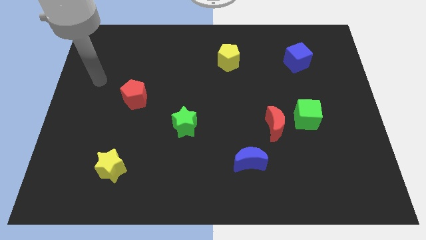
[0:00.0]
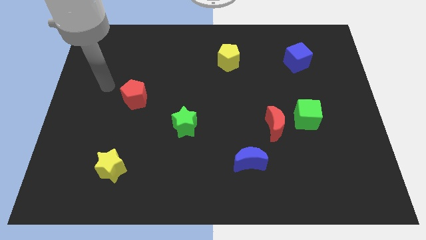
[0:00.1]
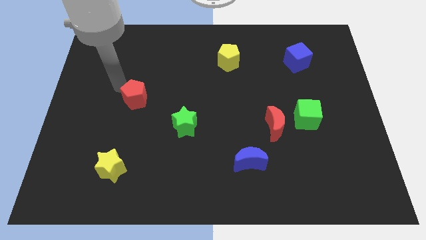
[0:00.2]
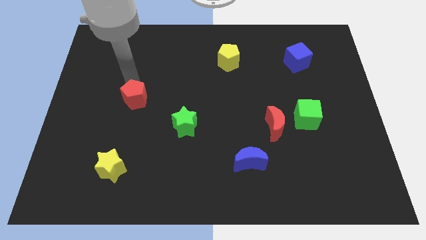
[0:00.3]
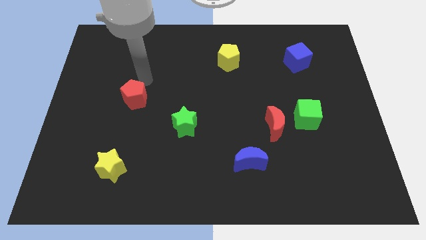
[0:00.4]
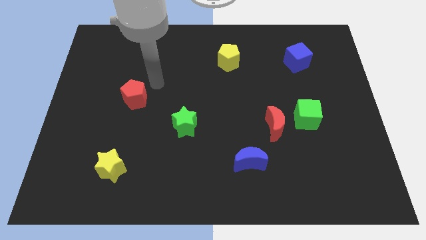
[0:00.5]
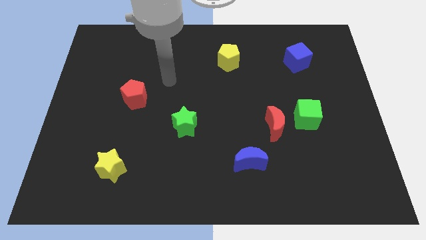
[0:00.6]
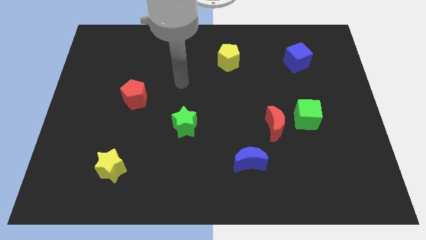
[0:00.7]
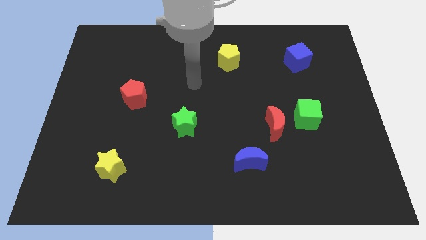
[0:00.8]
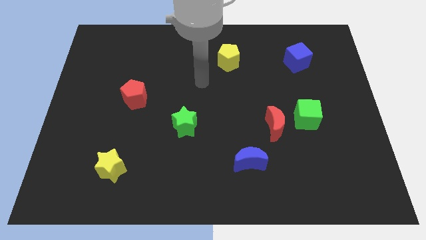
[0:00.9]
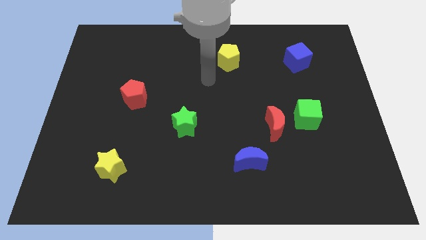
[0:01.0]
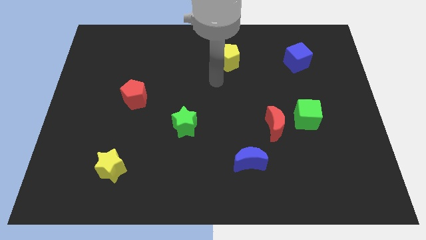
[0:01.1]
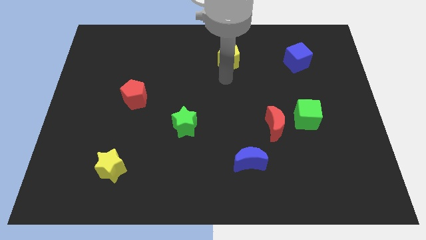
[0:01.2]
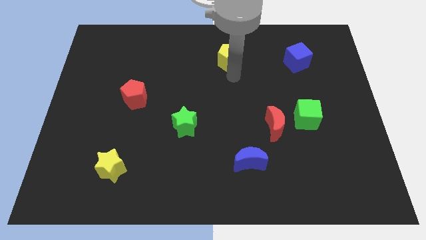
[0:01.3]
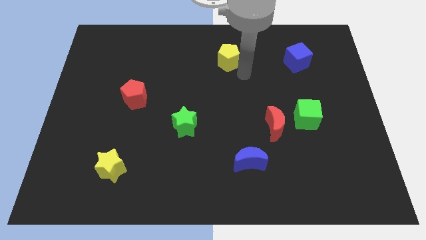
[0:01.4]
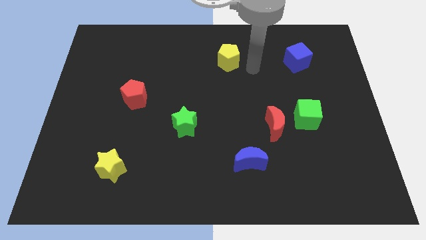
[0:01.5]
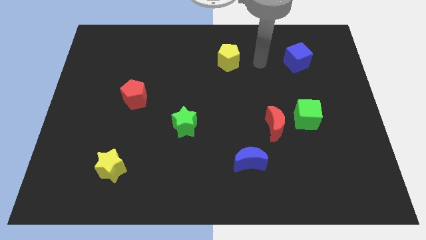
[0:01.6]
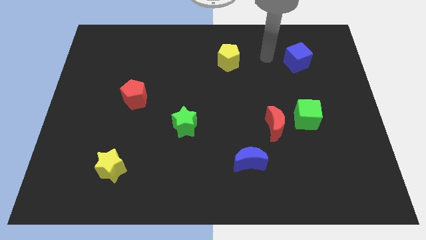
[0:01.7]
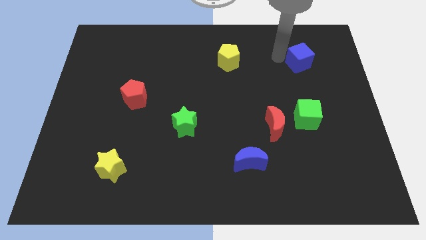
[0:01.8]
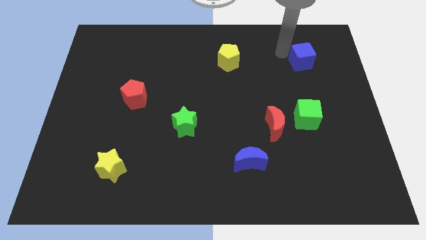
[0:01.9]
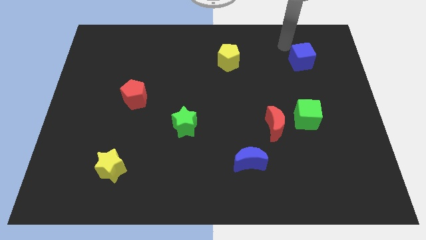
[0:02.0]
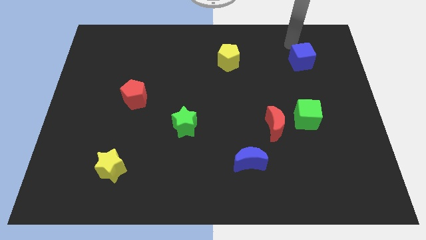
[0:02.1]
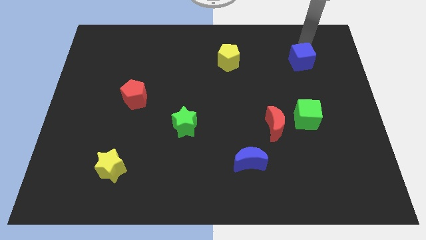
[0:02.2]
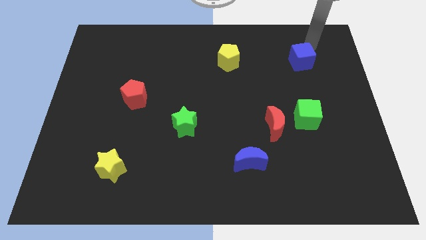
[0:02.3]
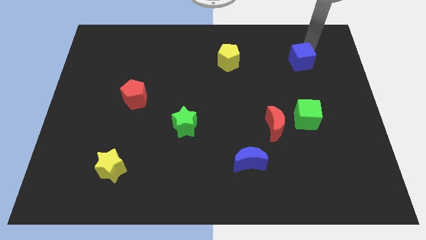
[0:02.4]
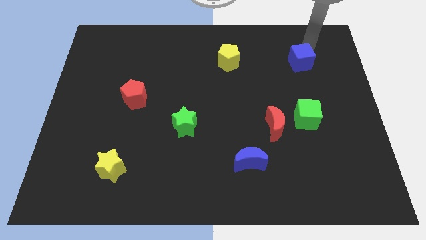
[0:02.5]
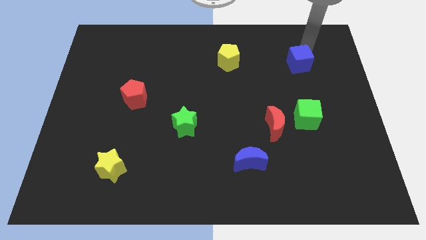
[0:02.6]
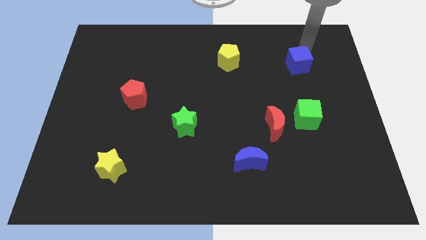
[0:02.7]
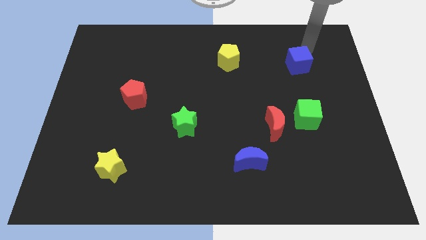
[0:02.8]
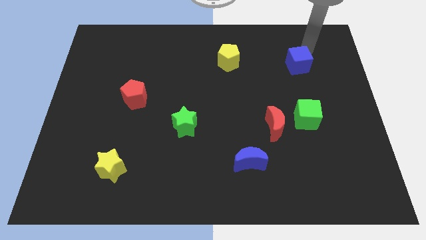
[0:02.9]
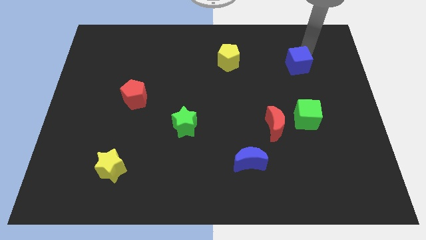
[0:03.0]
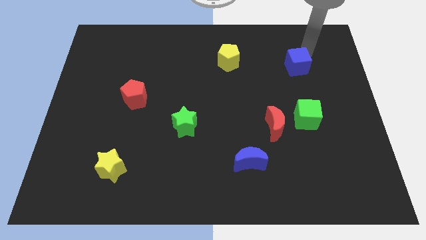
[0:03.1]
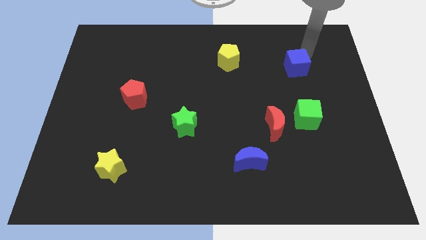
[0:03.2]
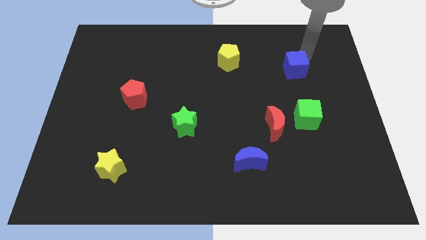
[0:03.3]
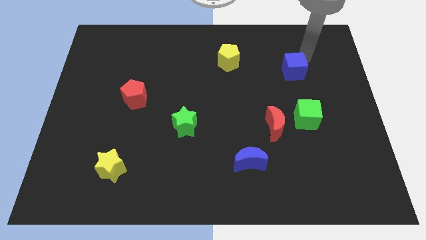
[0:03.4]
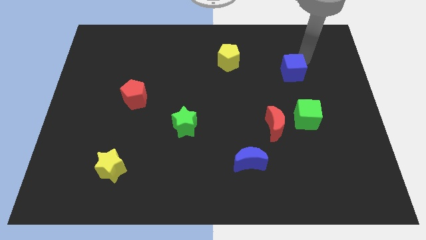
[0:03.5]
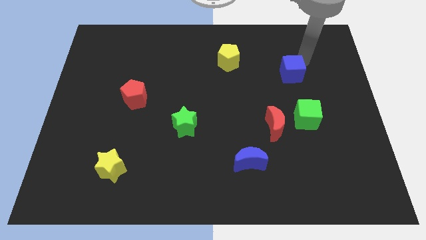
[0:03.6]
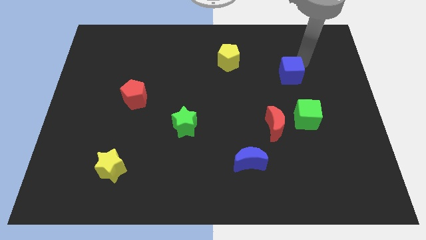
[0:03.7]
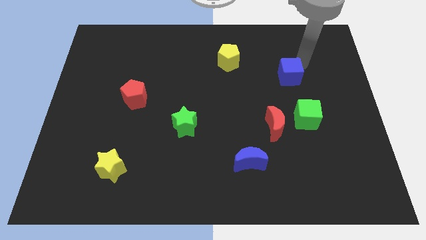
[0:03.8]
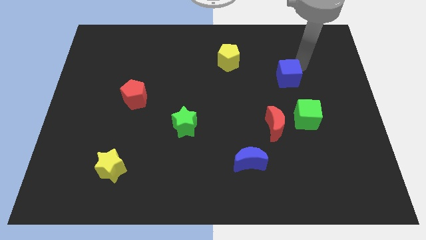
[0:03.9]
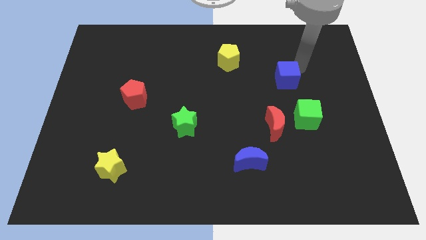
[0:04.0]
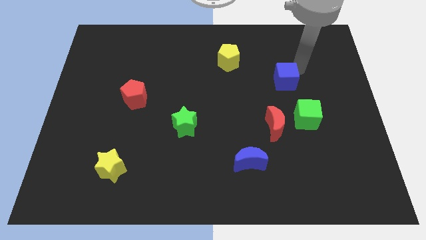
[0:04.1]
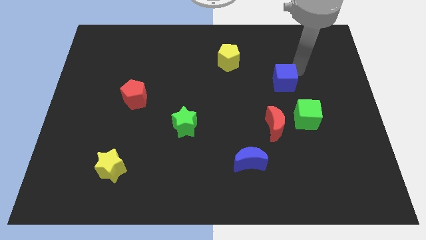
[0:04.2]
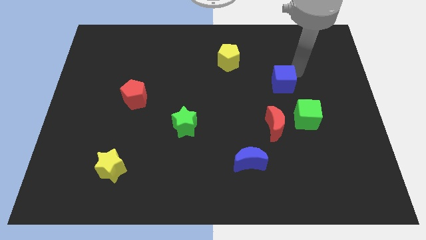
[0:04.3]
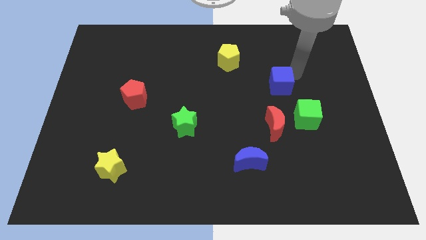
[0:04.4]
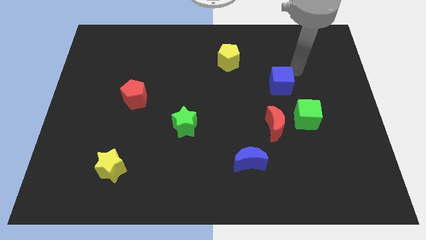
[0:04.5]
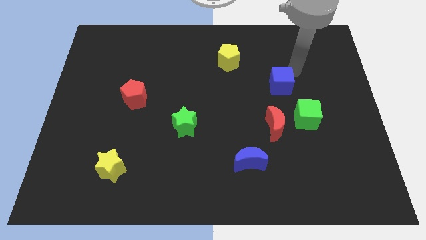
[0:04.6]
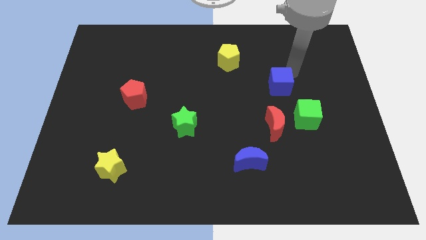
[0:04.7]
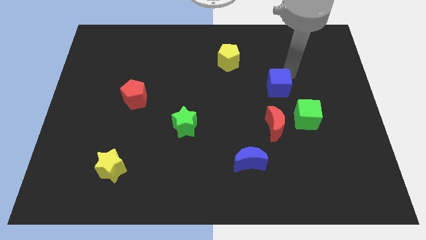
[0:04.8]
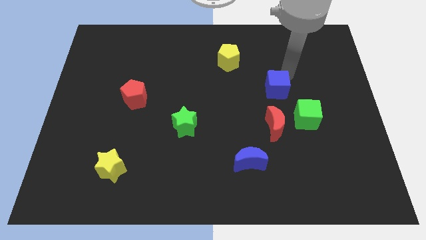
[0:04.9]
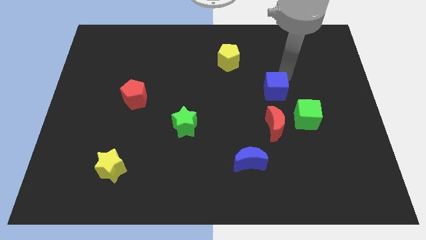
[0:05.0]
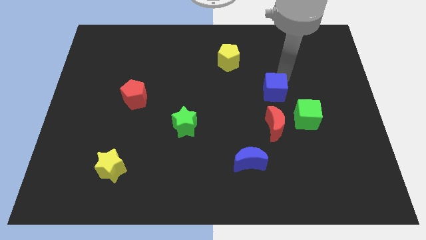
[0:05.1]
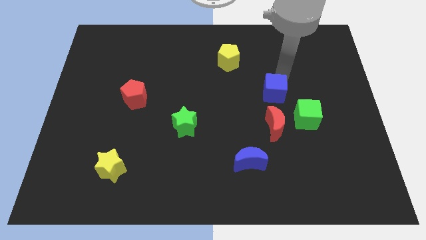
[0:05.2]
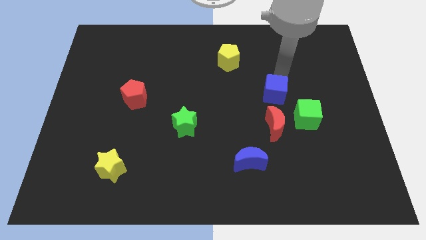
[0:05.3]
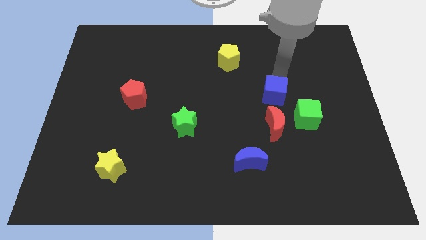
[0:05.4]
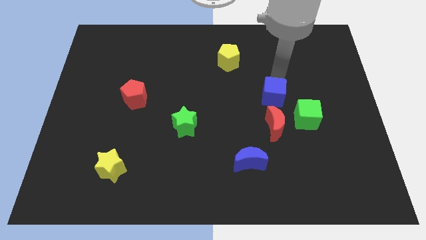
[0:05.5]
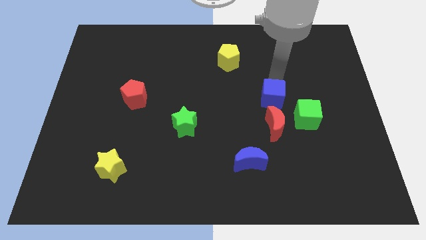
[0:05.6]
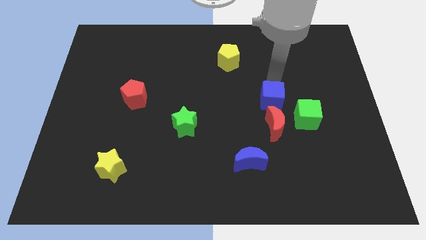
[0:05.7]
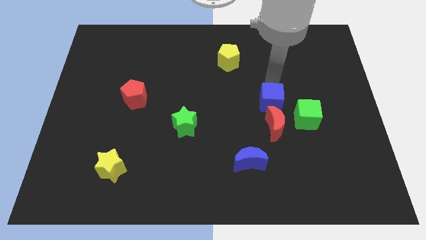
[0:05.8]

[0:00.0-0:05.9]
push the blue cube diagonally up and to the left of the red moon
